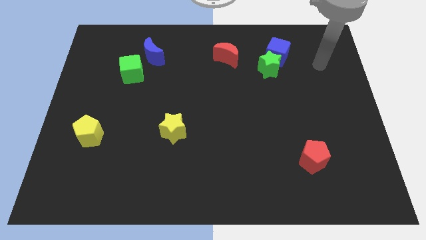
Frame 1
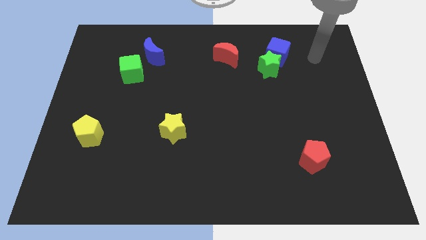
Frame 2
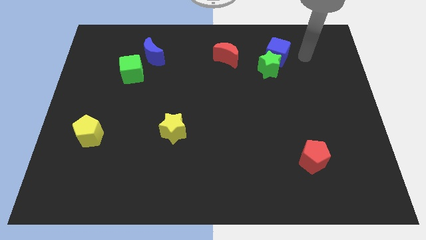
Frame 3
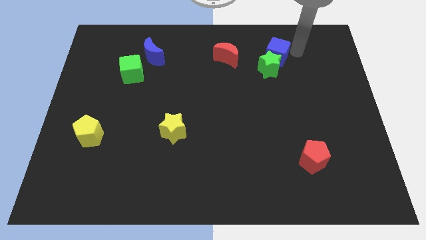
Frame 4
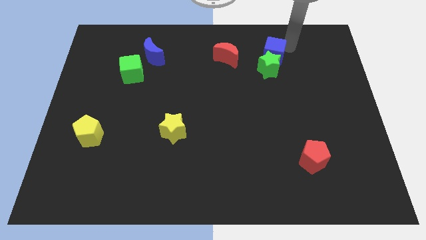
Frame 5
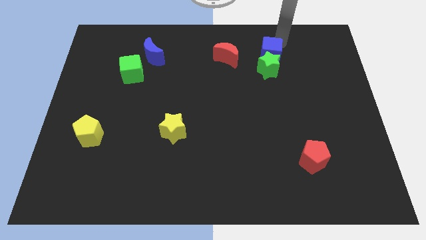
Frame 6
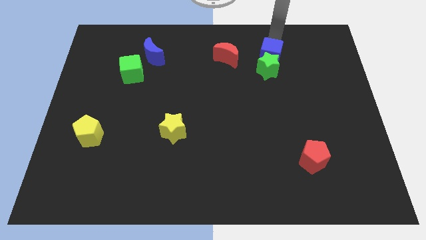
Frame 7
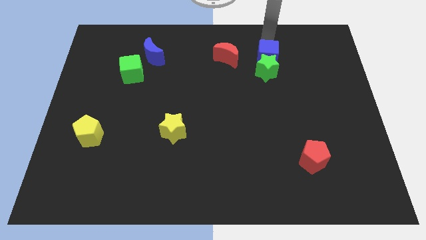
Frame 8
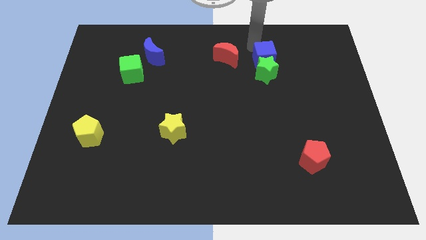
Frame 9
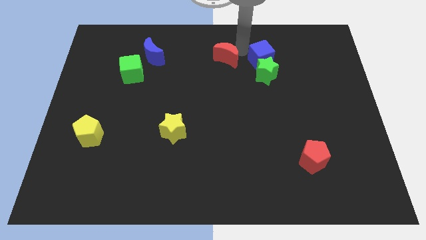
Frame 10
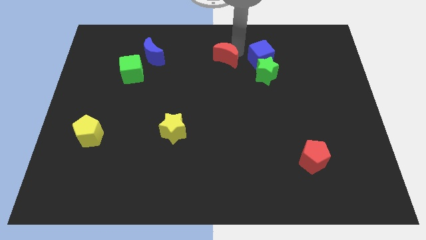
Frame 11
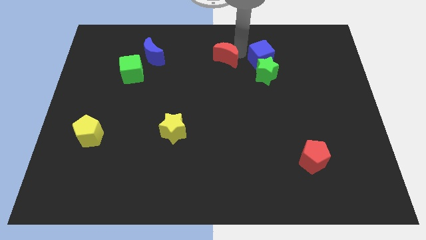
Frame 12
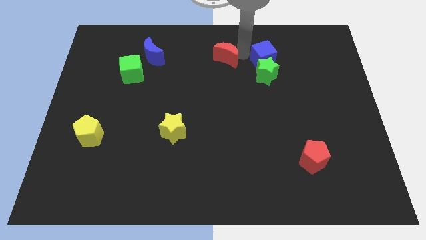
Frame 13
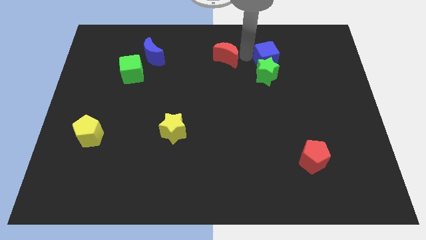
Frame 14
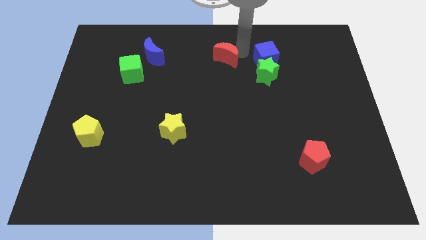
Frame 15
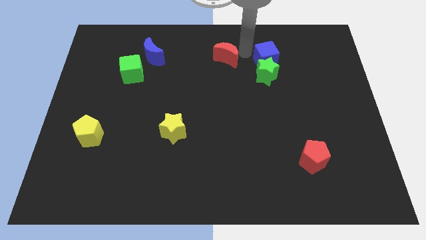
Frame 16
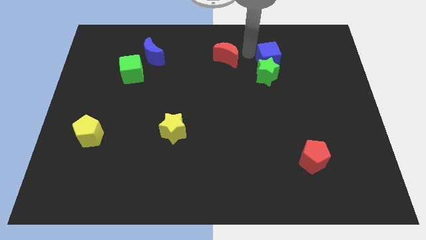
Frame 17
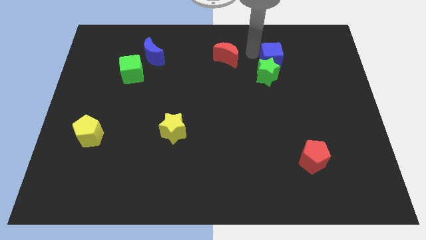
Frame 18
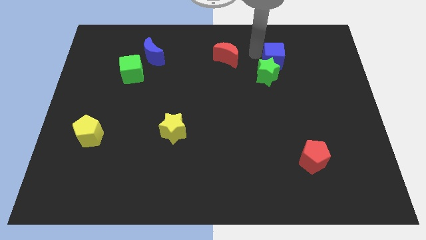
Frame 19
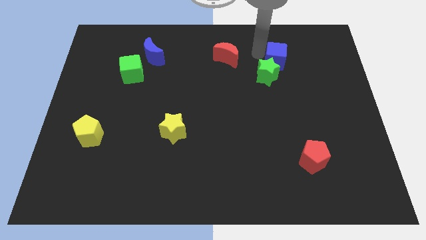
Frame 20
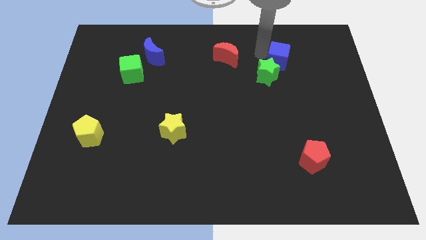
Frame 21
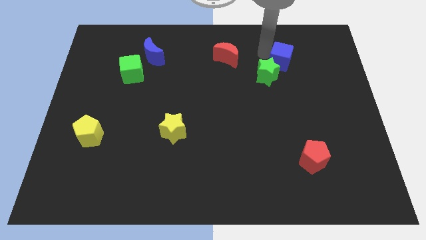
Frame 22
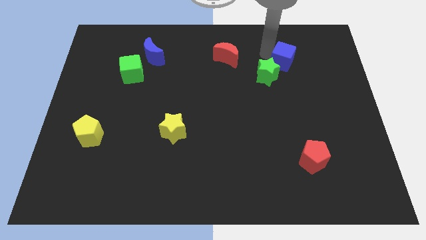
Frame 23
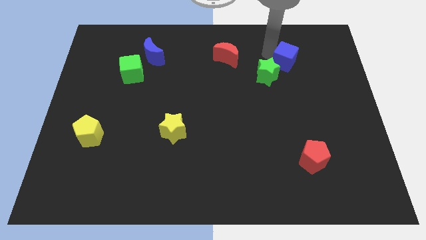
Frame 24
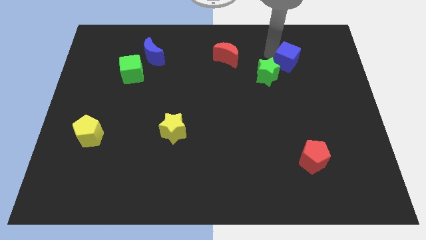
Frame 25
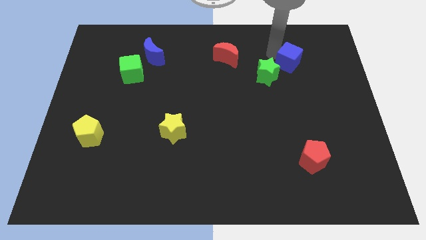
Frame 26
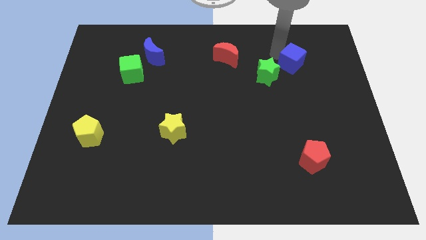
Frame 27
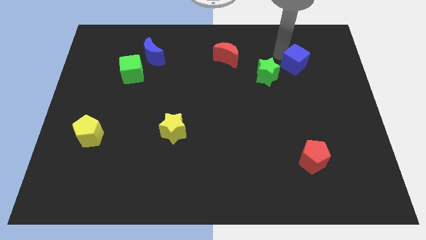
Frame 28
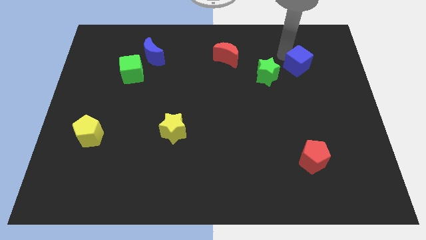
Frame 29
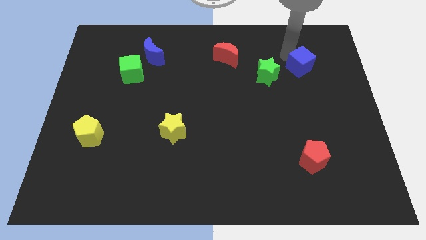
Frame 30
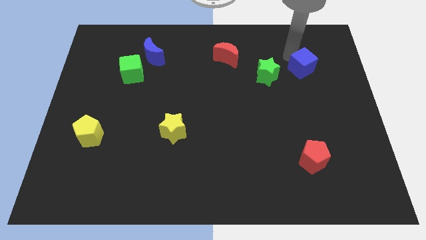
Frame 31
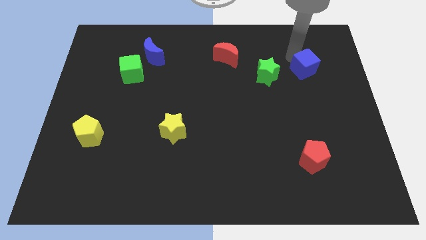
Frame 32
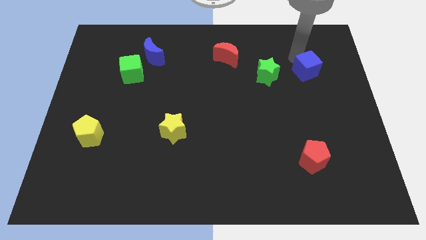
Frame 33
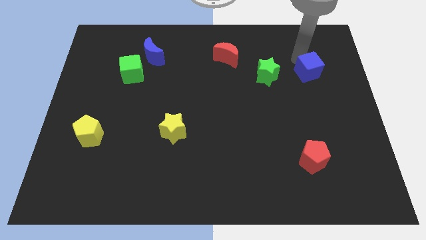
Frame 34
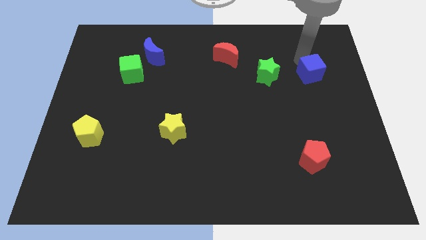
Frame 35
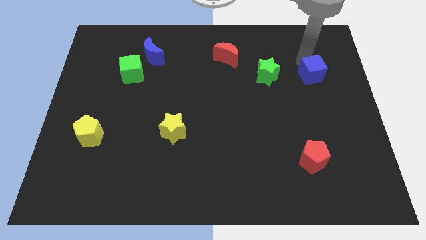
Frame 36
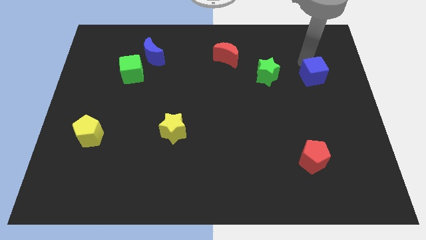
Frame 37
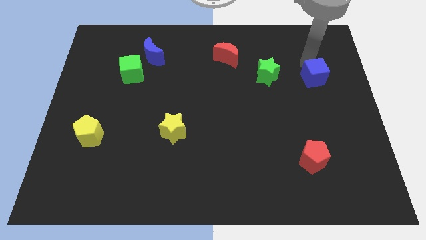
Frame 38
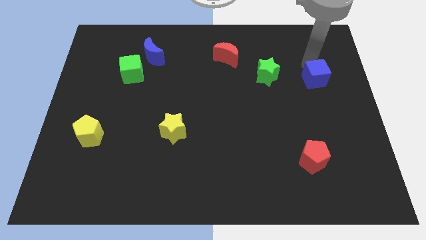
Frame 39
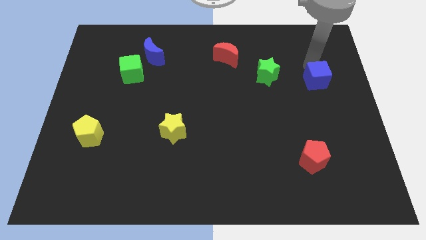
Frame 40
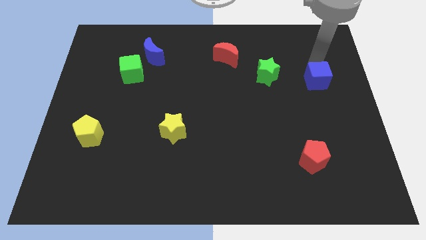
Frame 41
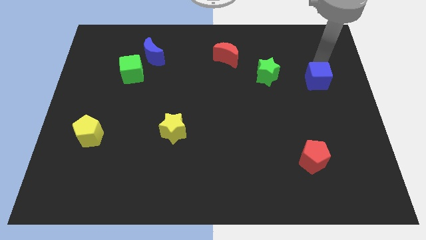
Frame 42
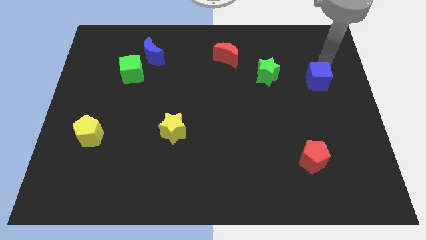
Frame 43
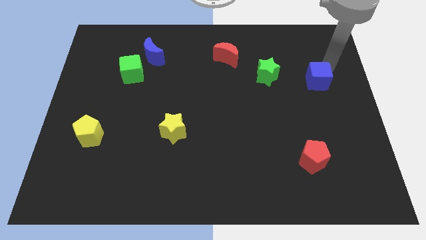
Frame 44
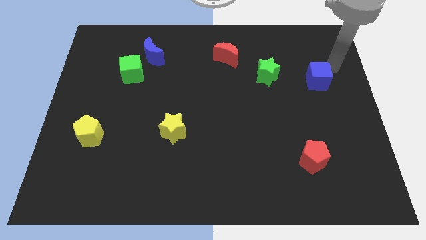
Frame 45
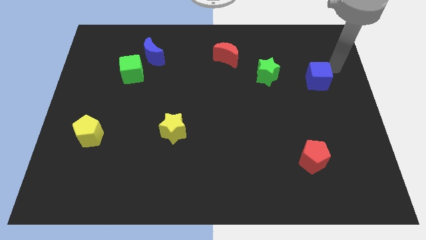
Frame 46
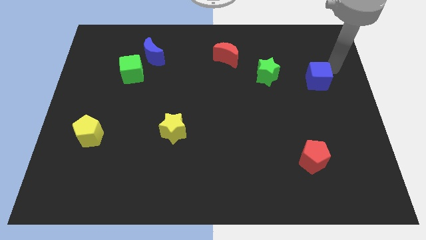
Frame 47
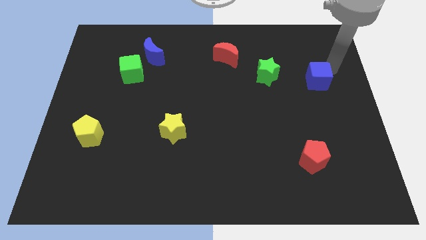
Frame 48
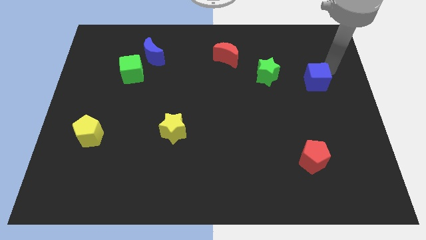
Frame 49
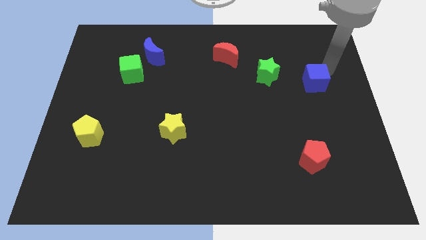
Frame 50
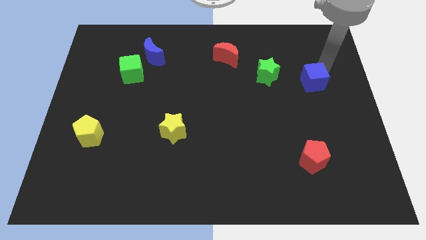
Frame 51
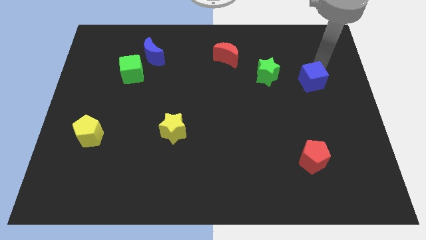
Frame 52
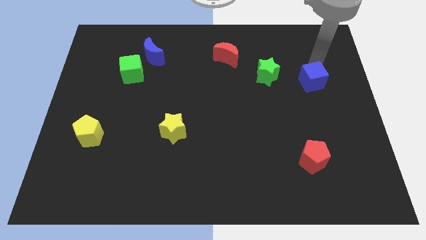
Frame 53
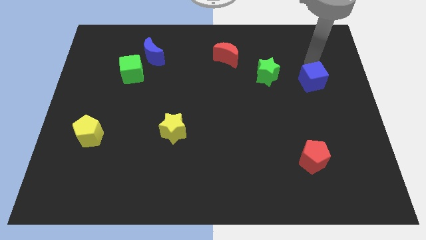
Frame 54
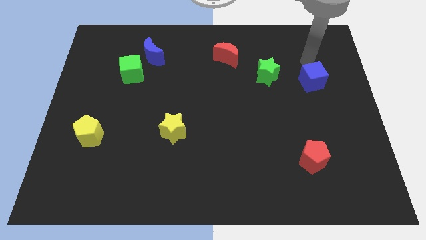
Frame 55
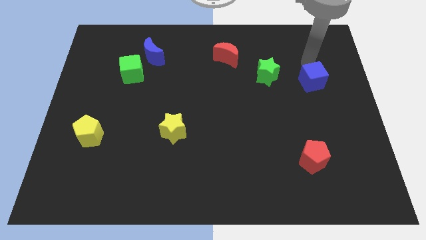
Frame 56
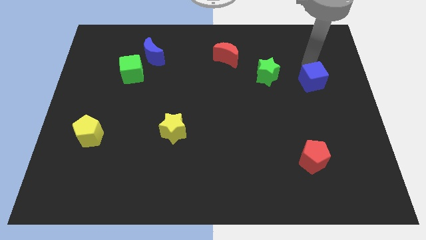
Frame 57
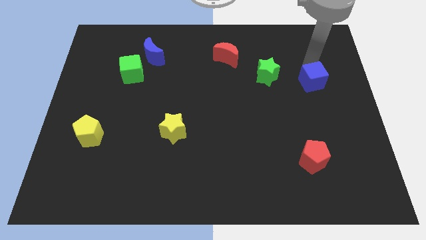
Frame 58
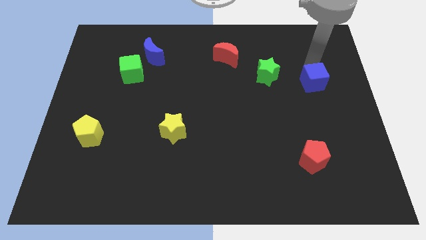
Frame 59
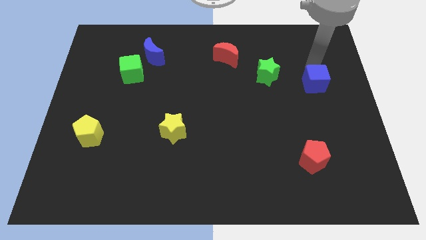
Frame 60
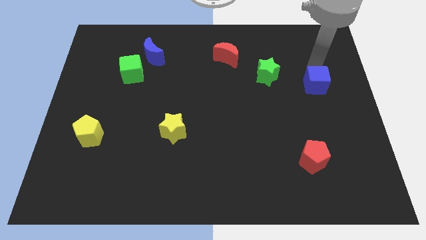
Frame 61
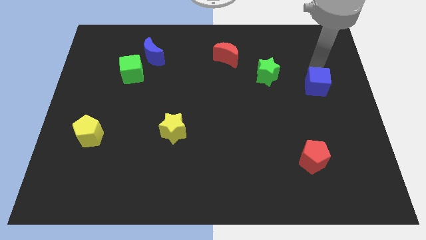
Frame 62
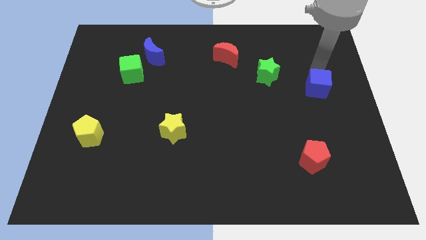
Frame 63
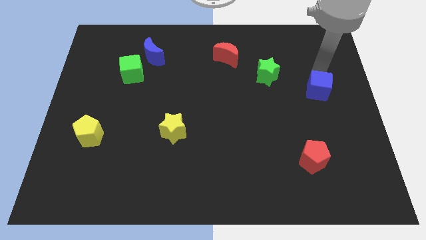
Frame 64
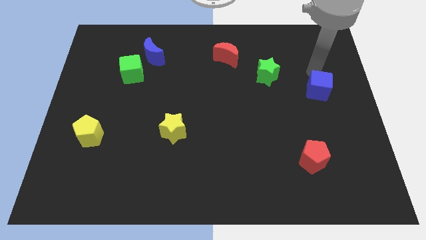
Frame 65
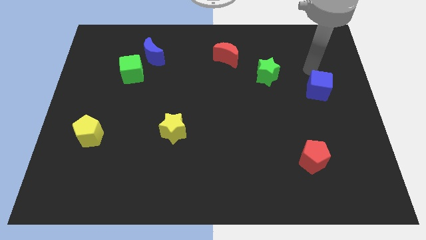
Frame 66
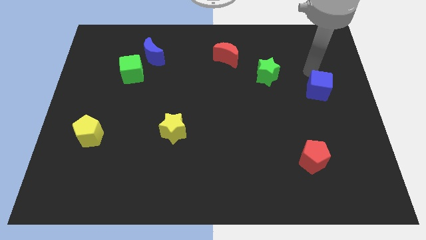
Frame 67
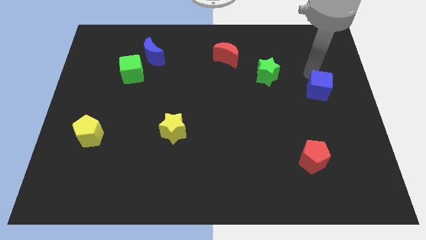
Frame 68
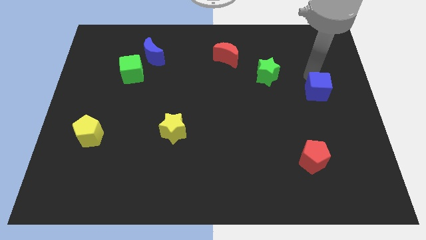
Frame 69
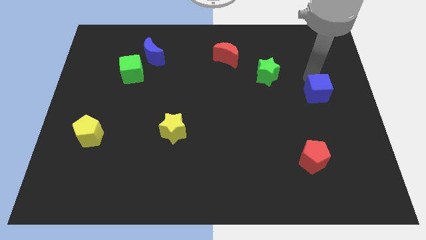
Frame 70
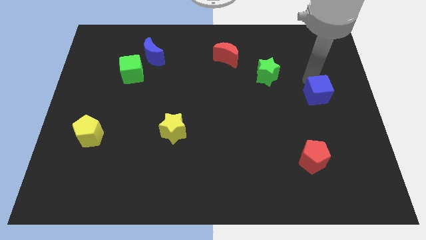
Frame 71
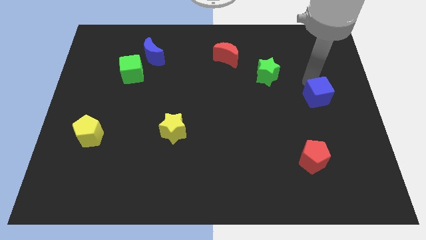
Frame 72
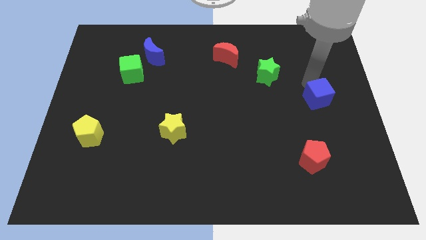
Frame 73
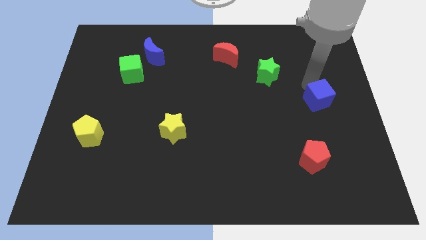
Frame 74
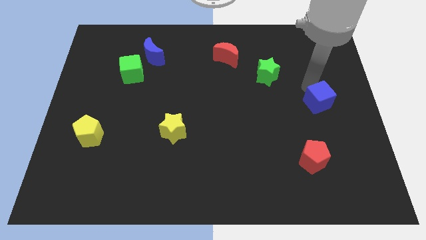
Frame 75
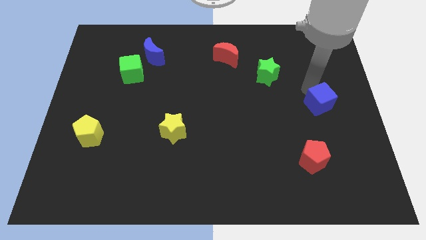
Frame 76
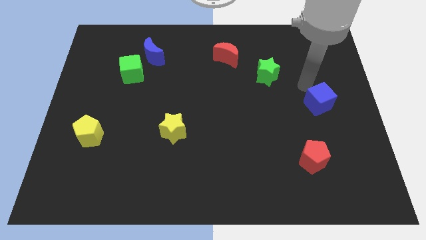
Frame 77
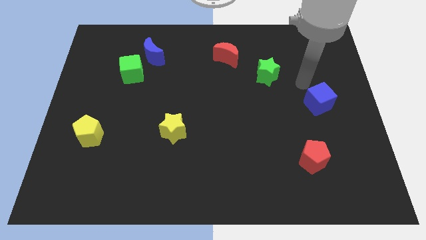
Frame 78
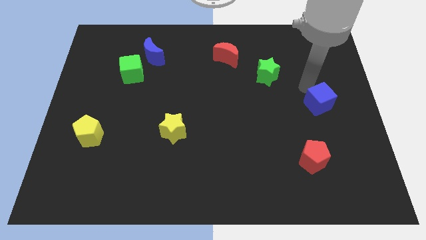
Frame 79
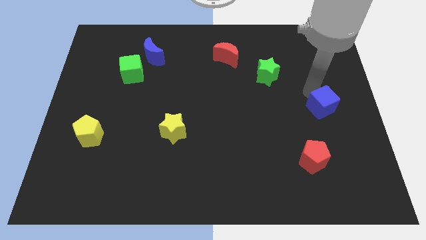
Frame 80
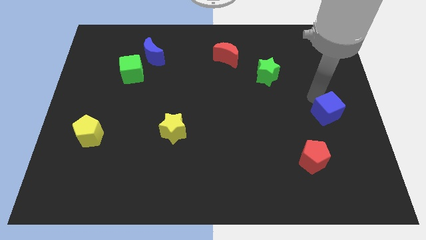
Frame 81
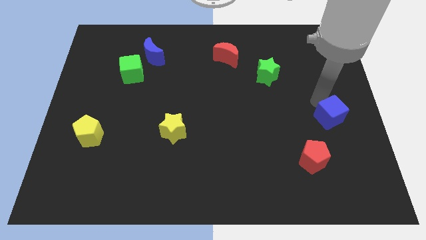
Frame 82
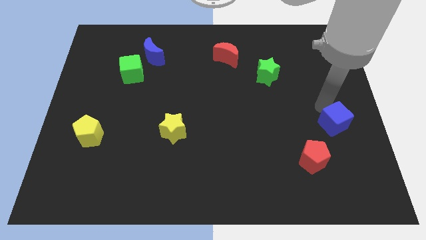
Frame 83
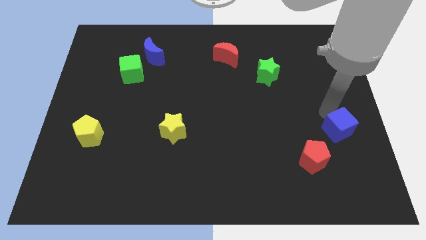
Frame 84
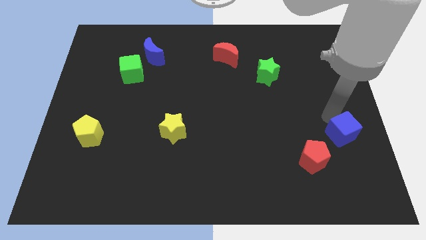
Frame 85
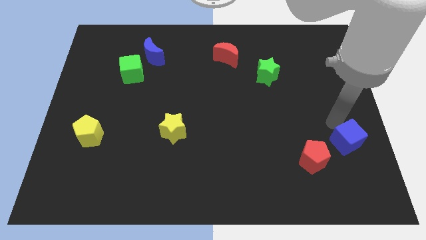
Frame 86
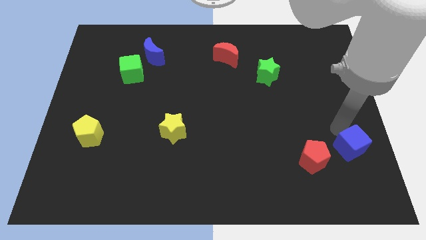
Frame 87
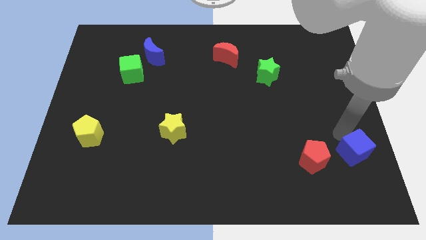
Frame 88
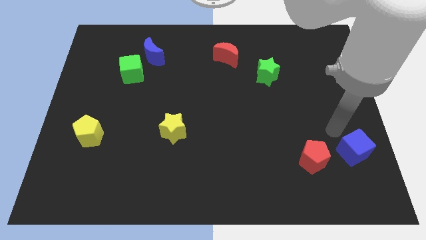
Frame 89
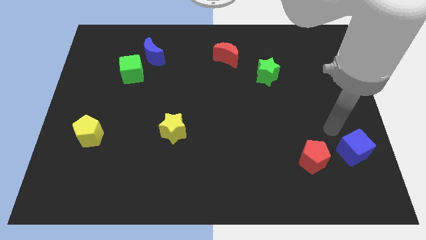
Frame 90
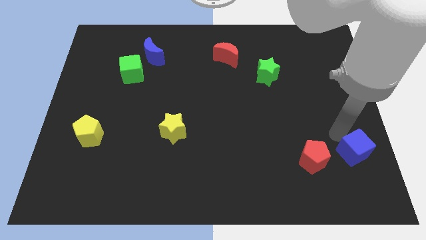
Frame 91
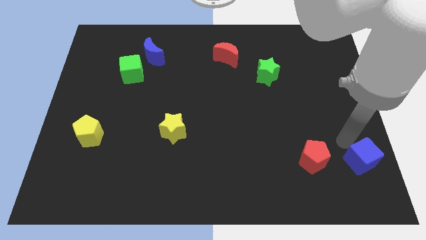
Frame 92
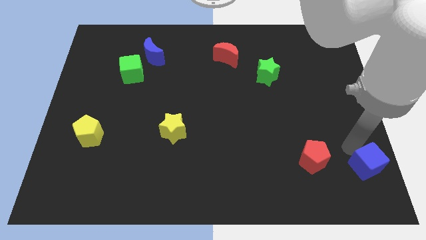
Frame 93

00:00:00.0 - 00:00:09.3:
put the blue cube to the lower right corner
